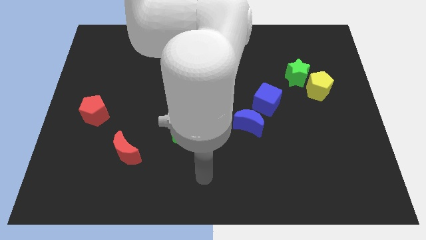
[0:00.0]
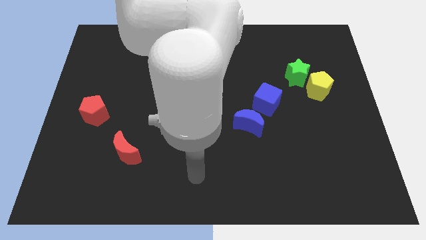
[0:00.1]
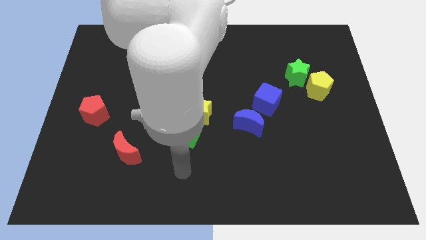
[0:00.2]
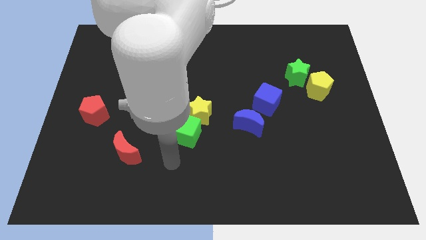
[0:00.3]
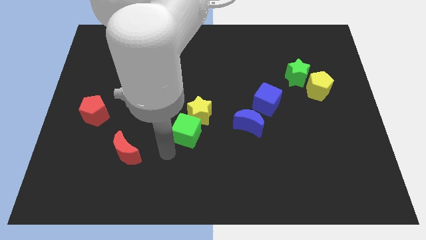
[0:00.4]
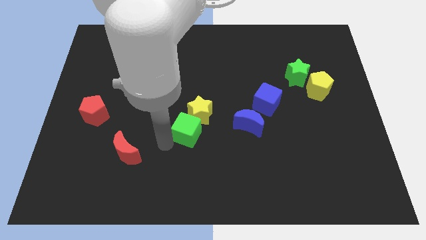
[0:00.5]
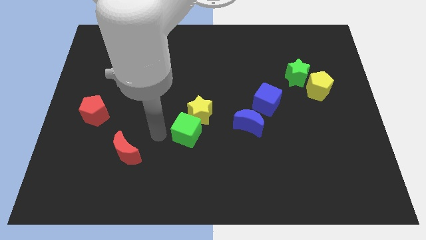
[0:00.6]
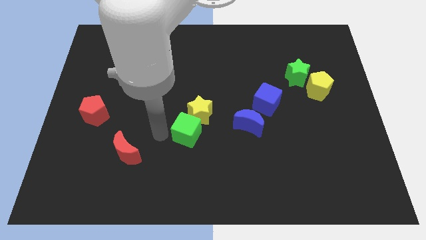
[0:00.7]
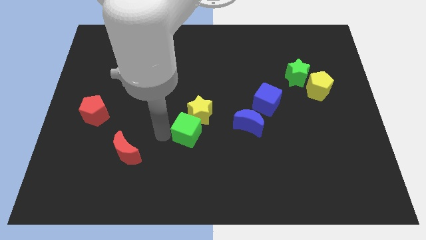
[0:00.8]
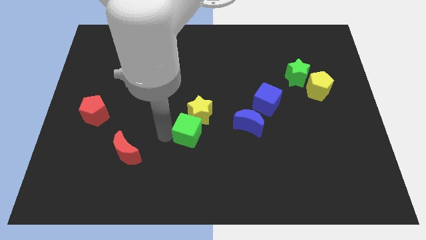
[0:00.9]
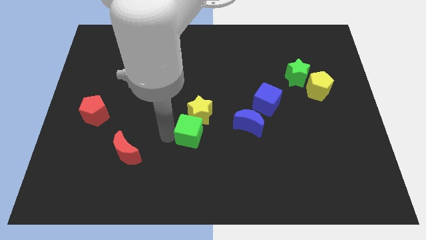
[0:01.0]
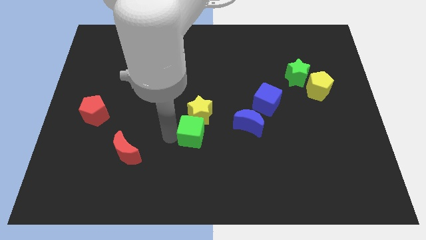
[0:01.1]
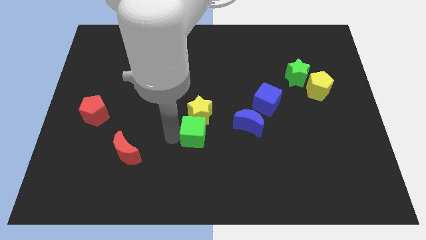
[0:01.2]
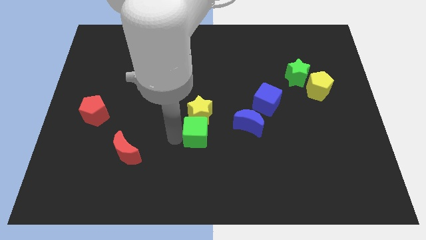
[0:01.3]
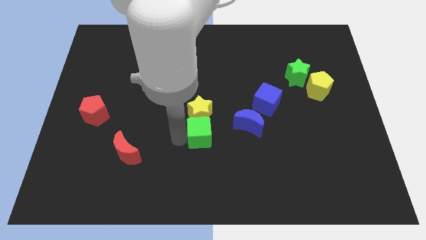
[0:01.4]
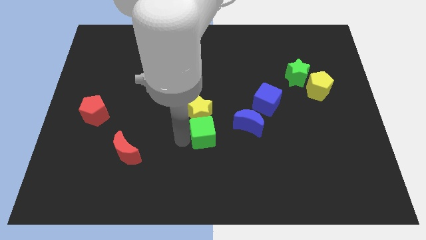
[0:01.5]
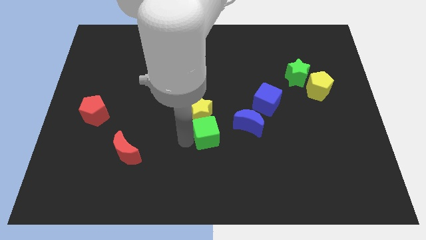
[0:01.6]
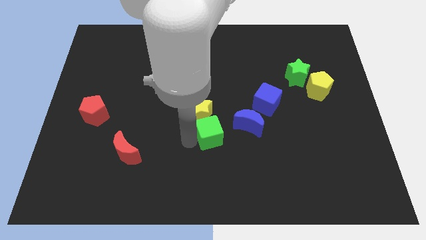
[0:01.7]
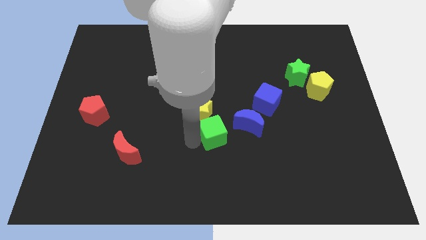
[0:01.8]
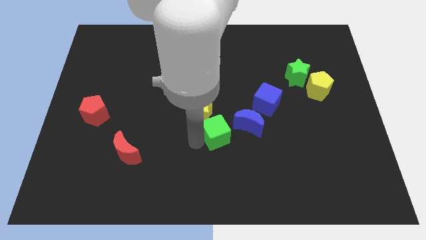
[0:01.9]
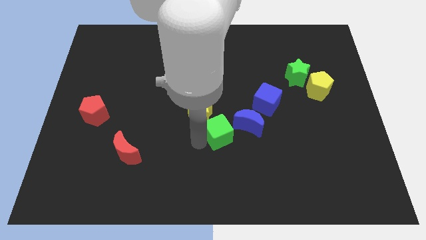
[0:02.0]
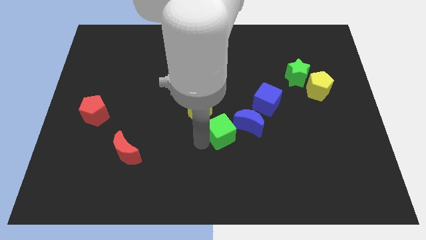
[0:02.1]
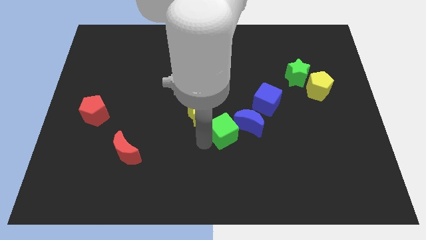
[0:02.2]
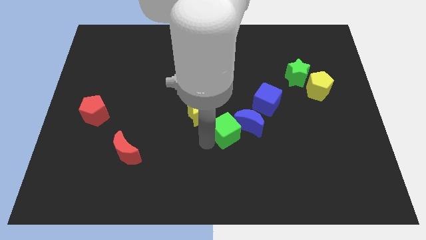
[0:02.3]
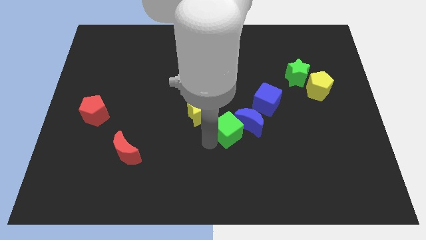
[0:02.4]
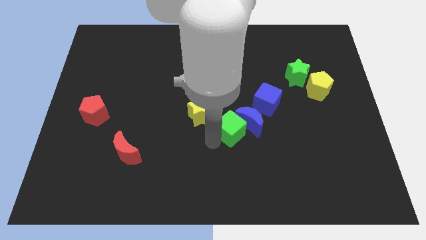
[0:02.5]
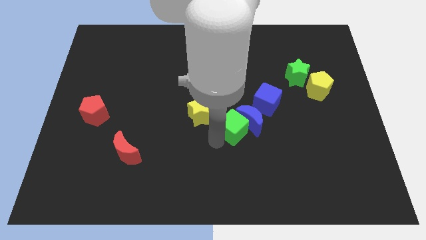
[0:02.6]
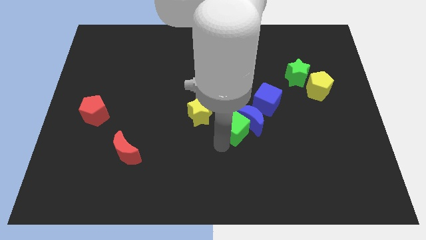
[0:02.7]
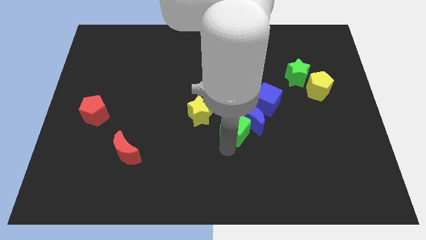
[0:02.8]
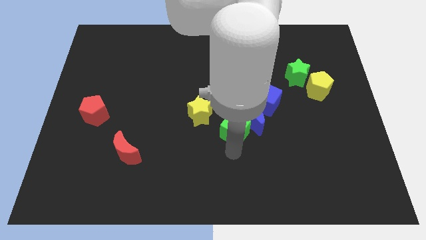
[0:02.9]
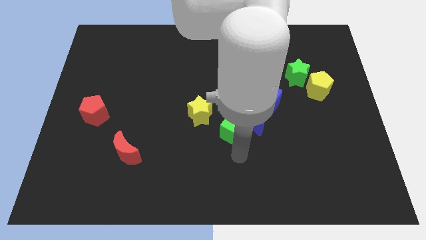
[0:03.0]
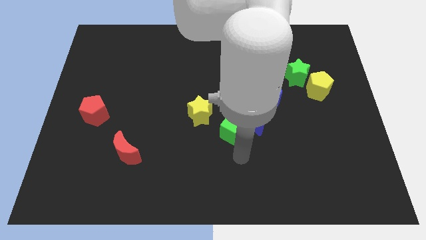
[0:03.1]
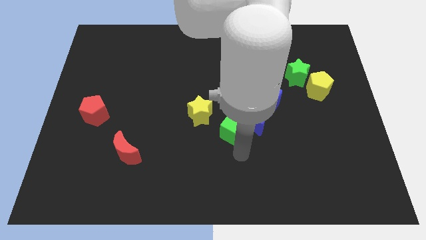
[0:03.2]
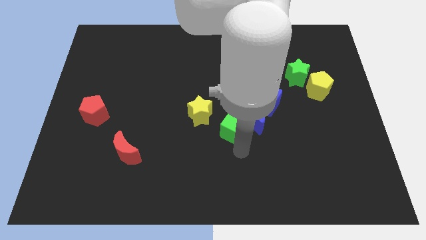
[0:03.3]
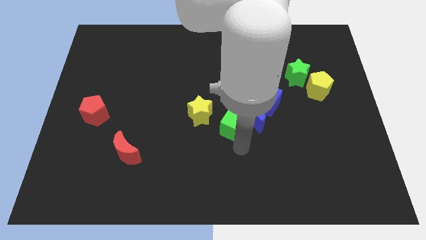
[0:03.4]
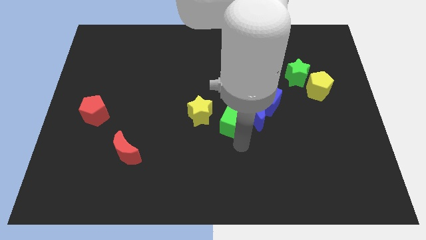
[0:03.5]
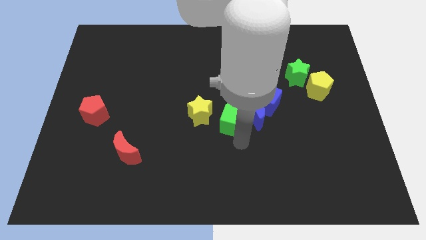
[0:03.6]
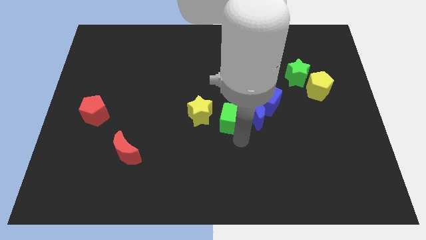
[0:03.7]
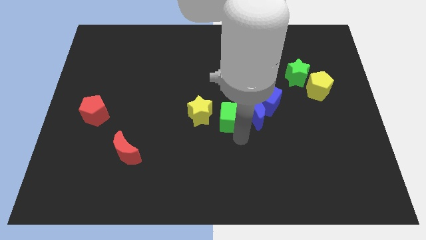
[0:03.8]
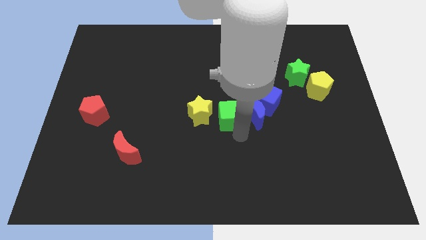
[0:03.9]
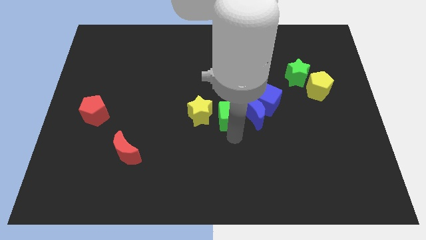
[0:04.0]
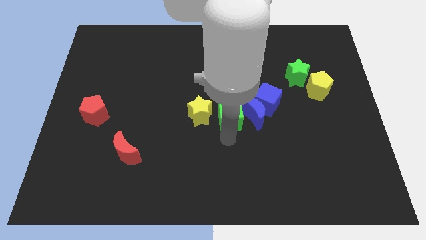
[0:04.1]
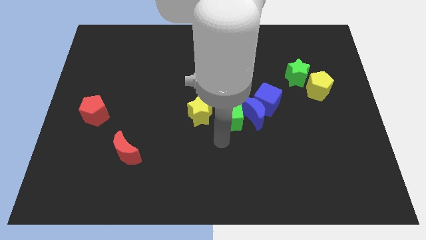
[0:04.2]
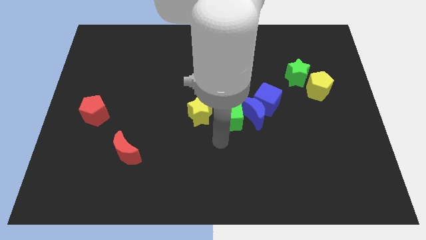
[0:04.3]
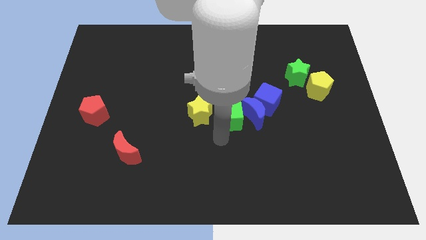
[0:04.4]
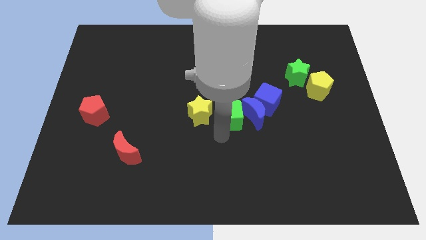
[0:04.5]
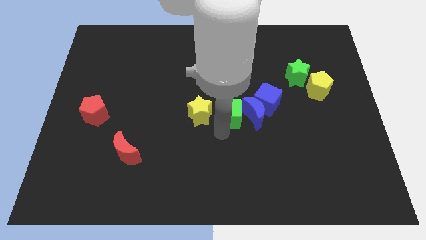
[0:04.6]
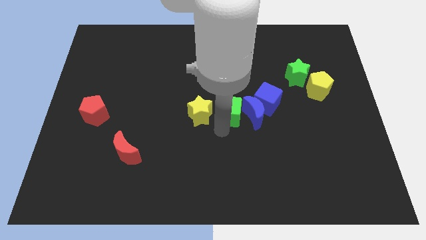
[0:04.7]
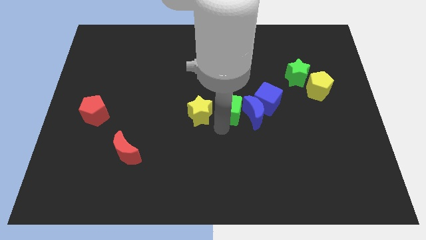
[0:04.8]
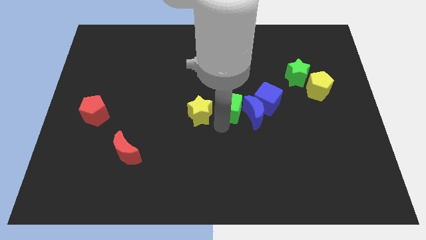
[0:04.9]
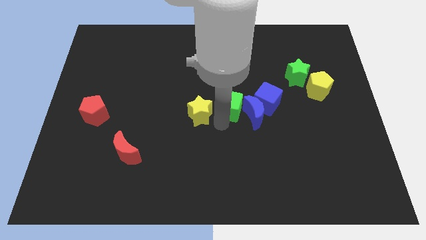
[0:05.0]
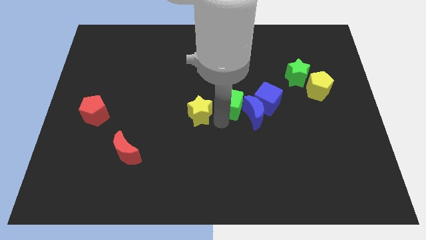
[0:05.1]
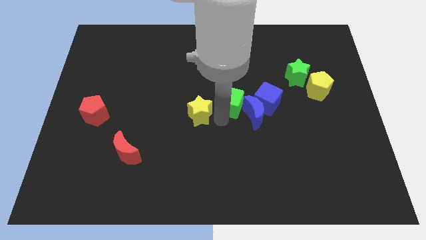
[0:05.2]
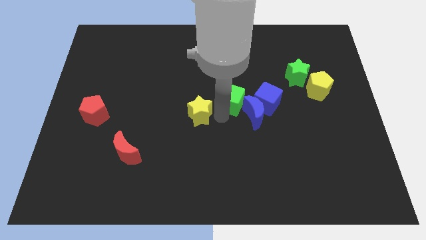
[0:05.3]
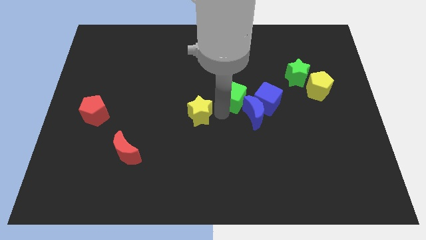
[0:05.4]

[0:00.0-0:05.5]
move the green cube to the top of the blue moon
